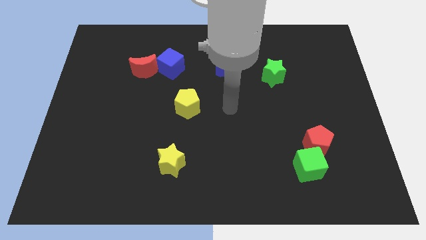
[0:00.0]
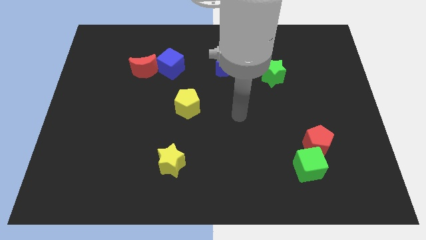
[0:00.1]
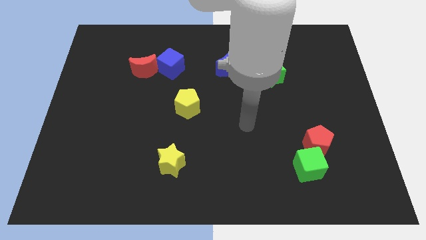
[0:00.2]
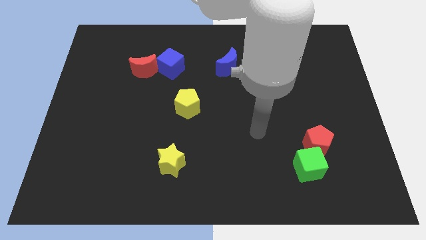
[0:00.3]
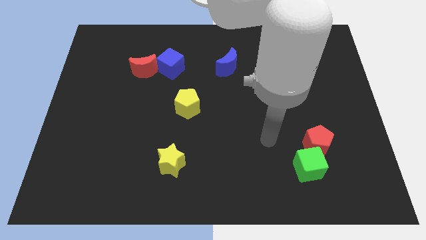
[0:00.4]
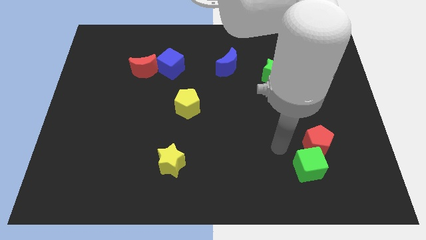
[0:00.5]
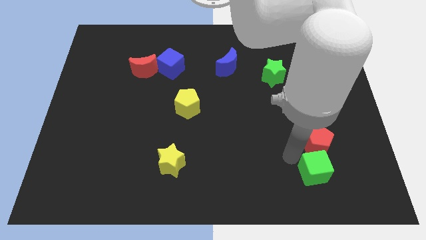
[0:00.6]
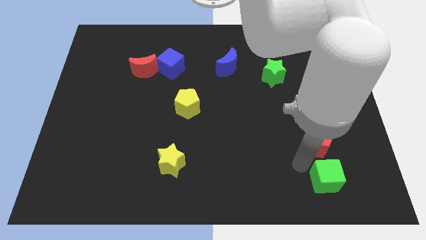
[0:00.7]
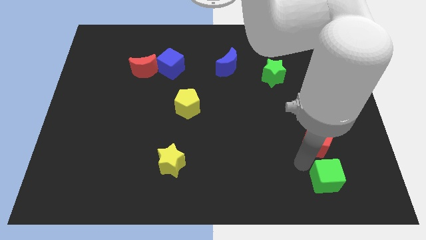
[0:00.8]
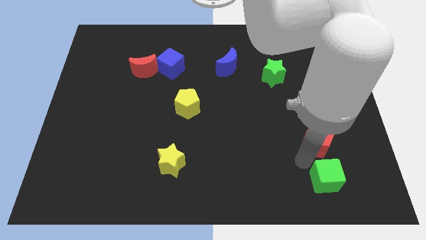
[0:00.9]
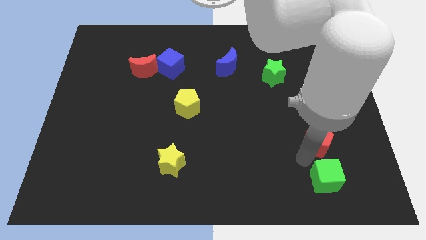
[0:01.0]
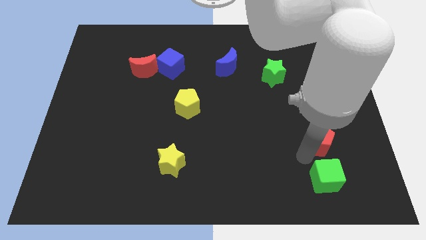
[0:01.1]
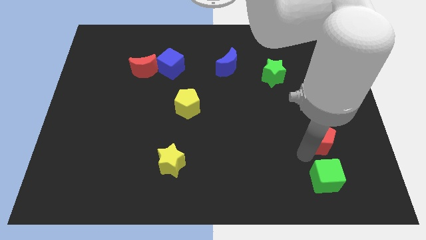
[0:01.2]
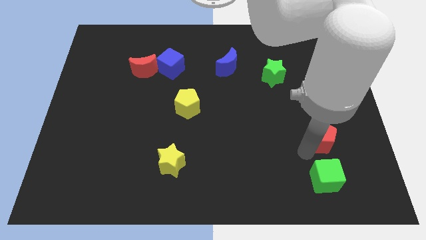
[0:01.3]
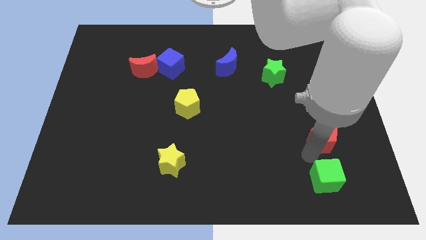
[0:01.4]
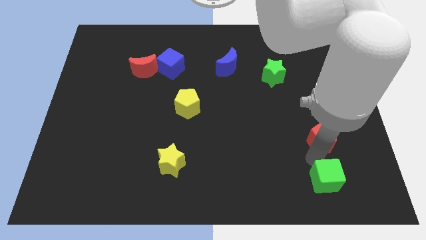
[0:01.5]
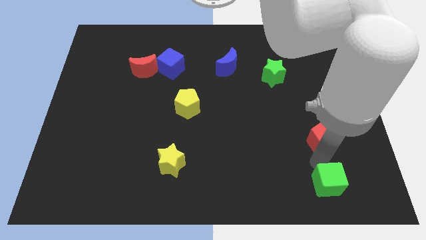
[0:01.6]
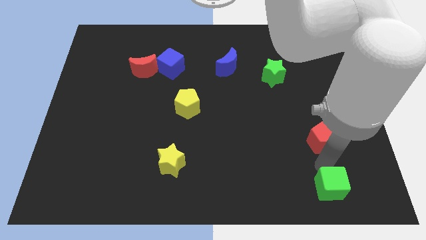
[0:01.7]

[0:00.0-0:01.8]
separate the red pentagon from the green cube

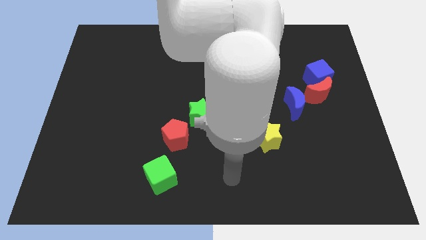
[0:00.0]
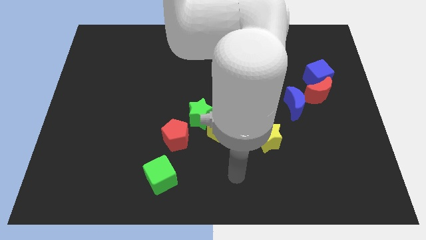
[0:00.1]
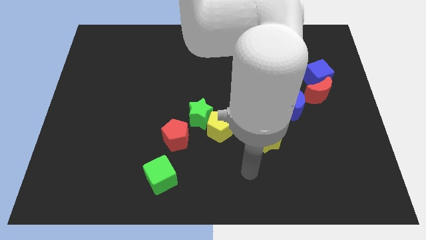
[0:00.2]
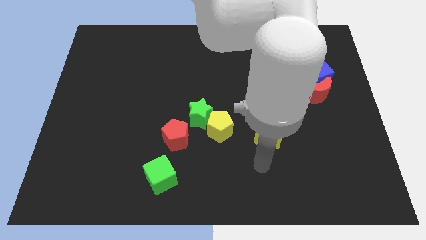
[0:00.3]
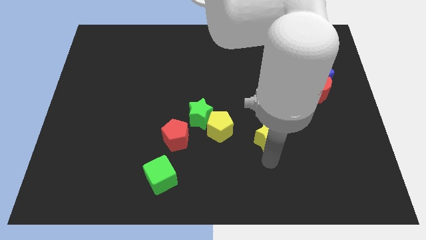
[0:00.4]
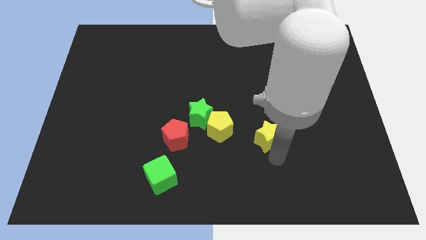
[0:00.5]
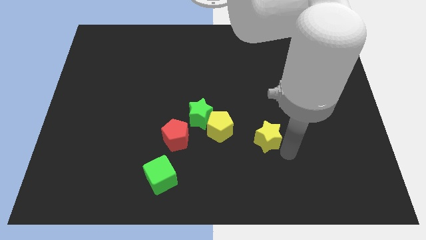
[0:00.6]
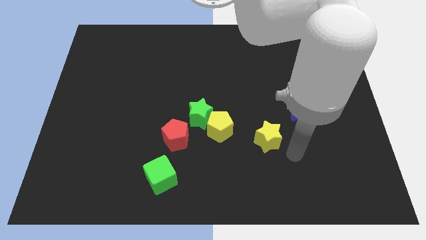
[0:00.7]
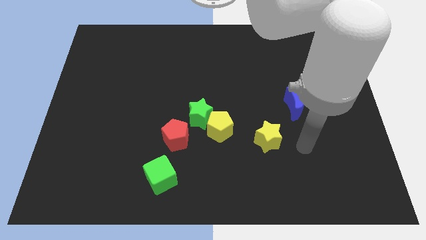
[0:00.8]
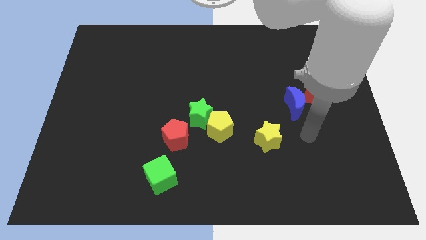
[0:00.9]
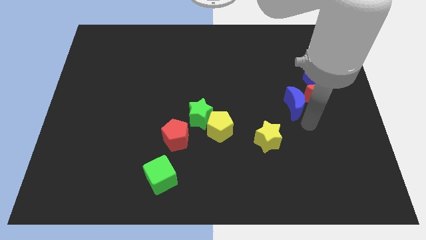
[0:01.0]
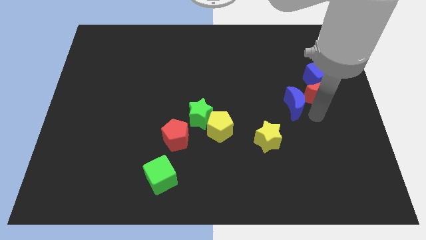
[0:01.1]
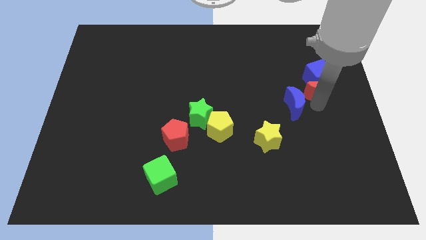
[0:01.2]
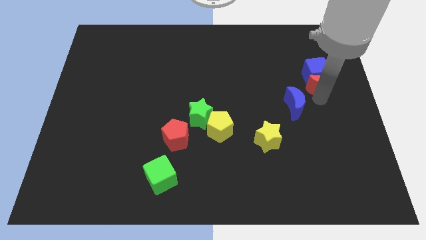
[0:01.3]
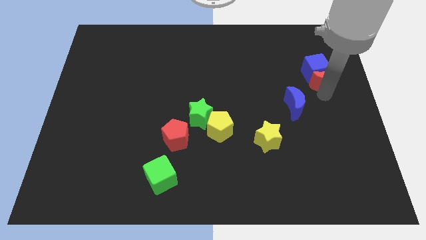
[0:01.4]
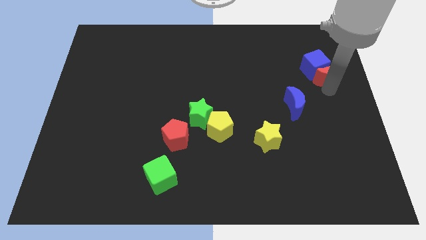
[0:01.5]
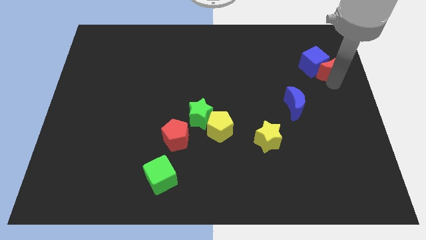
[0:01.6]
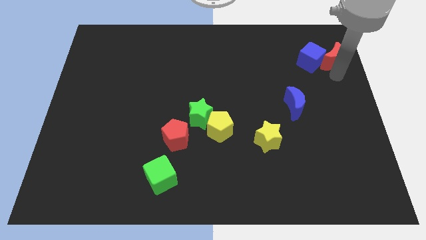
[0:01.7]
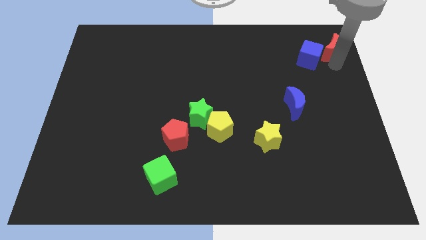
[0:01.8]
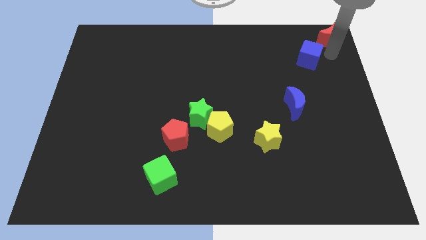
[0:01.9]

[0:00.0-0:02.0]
separate the blue cube from the red moon

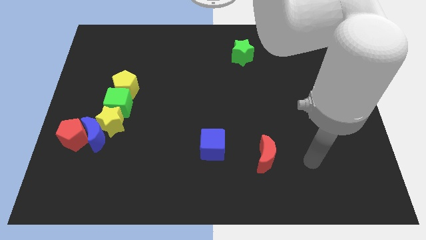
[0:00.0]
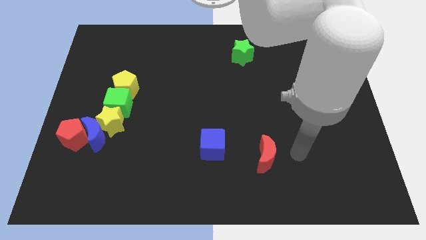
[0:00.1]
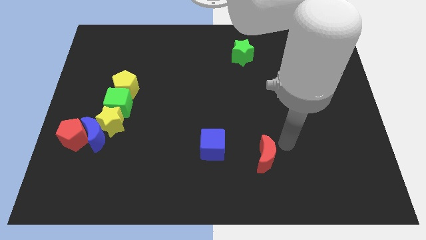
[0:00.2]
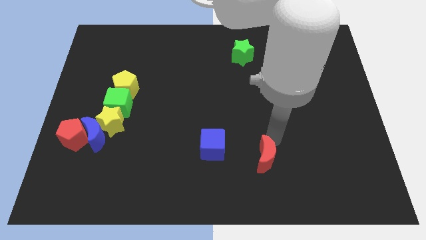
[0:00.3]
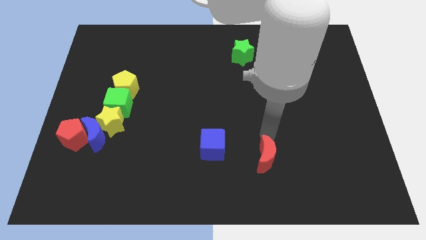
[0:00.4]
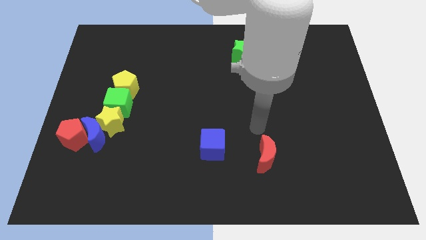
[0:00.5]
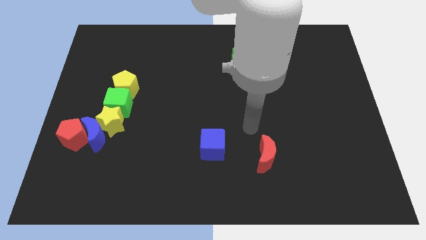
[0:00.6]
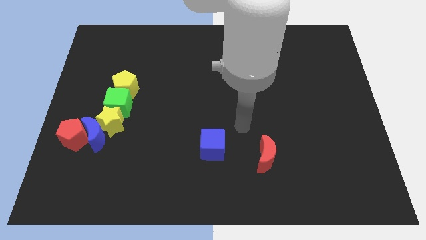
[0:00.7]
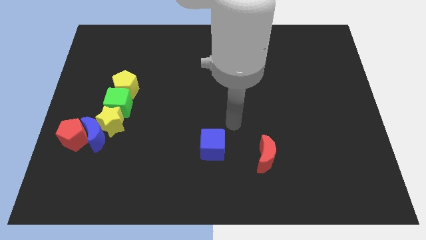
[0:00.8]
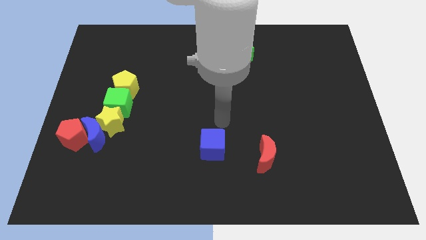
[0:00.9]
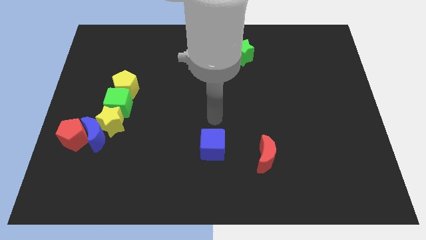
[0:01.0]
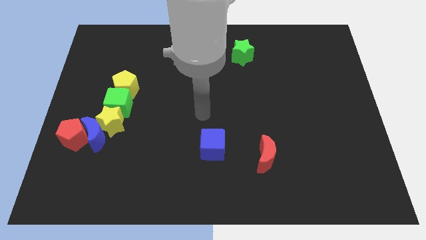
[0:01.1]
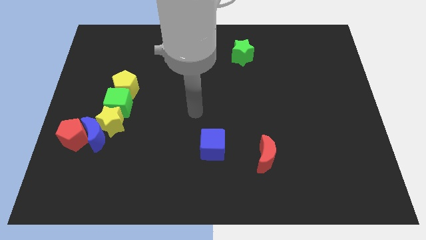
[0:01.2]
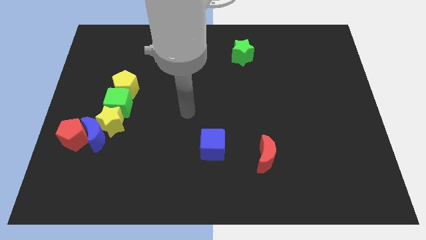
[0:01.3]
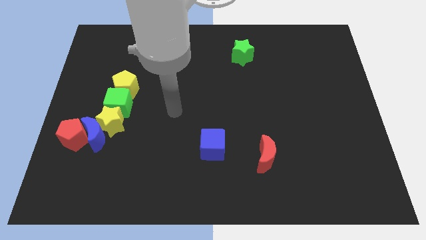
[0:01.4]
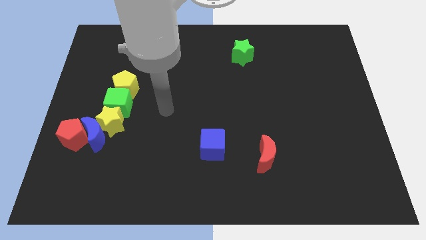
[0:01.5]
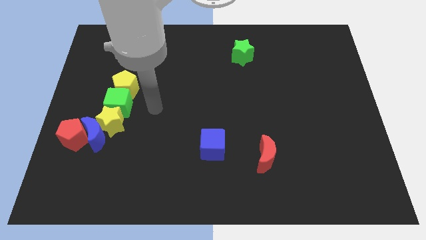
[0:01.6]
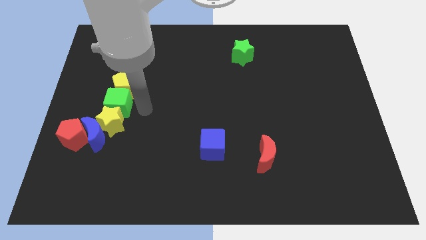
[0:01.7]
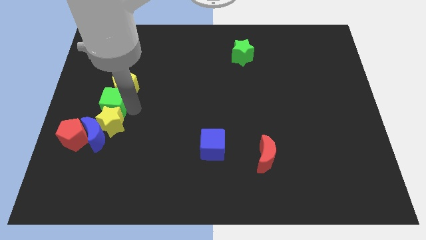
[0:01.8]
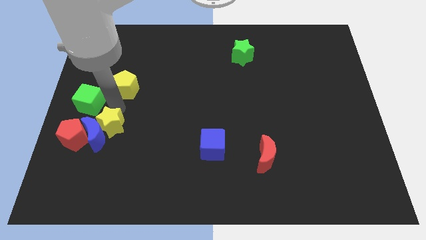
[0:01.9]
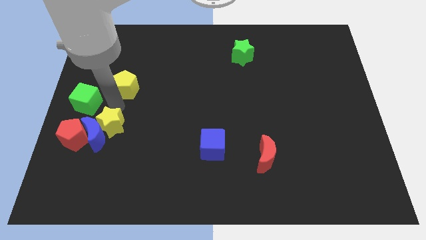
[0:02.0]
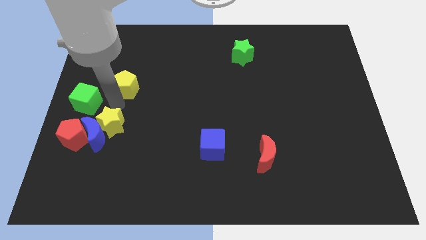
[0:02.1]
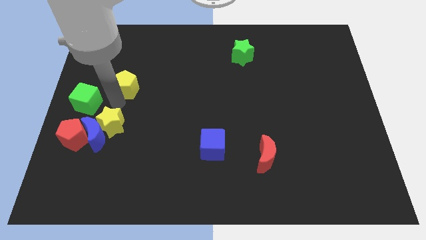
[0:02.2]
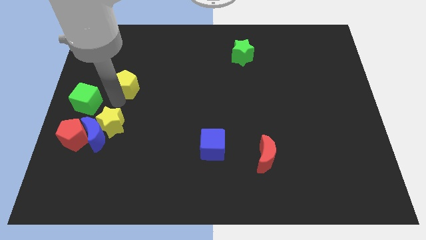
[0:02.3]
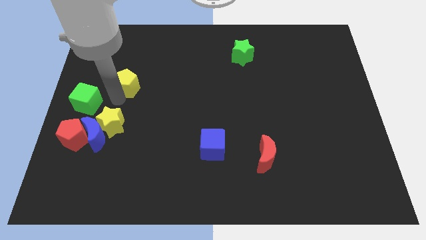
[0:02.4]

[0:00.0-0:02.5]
separate the yellow pentagon from the green cube

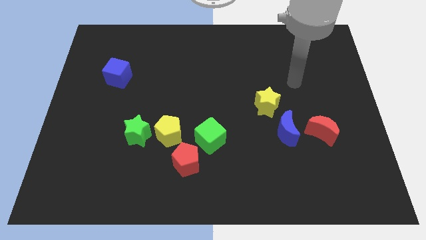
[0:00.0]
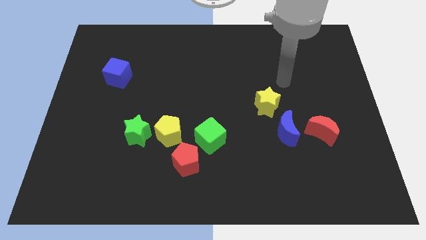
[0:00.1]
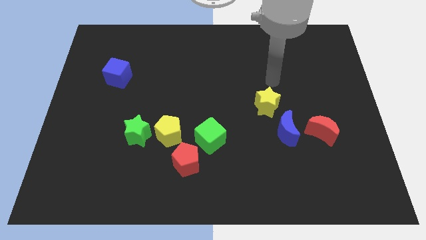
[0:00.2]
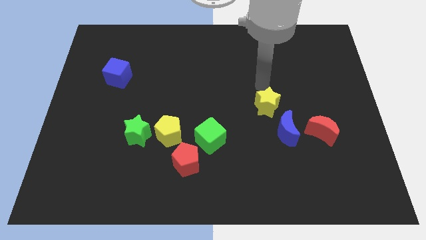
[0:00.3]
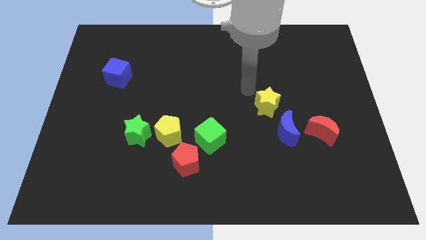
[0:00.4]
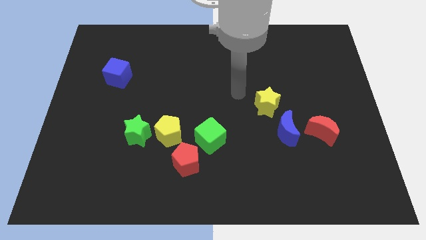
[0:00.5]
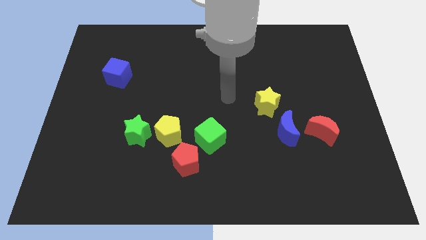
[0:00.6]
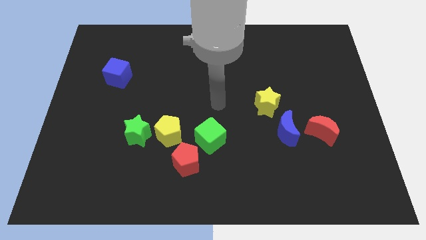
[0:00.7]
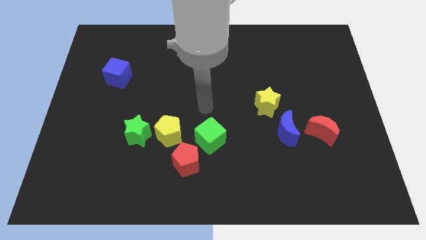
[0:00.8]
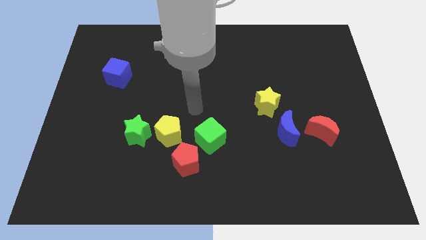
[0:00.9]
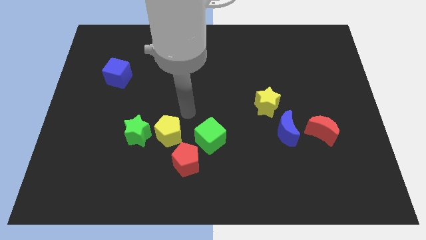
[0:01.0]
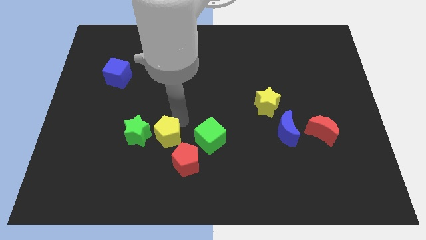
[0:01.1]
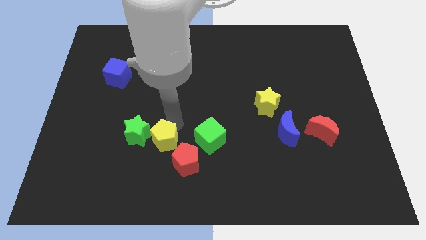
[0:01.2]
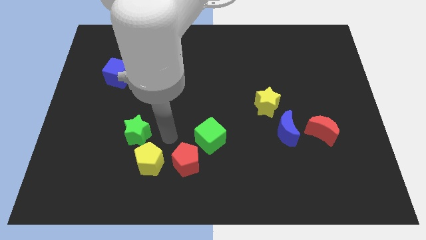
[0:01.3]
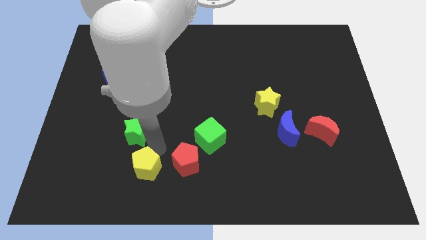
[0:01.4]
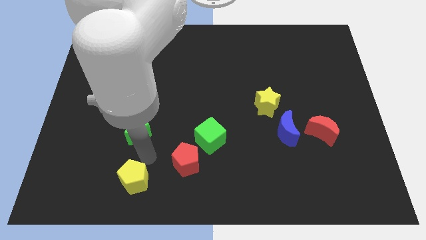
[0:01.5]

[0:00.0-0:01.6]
separate the green star from the yellow pentagon

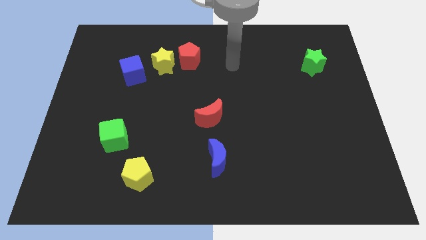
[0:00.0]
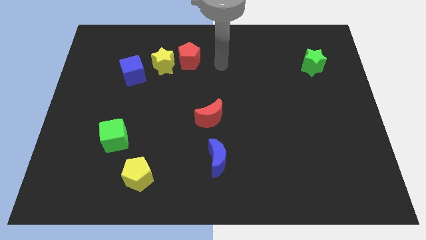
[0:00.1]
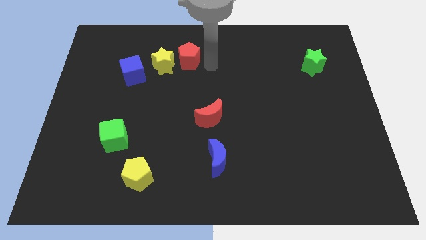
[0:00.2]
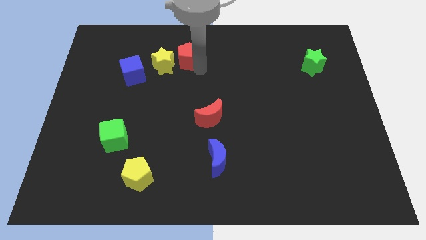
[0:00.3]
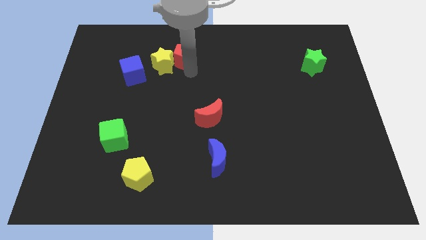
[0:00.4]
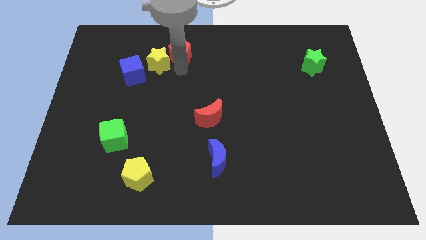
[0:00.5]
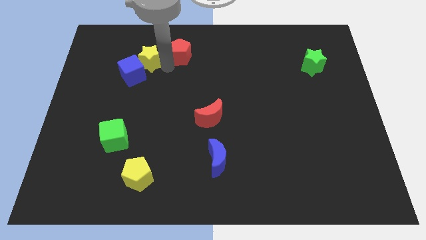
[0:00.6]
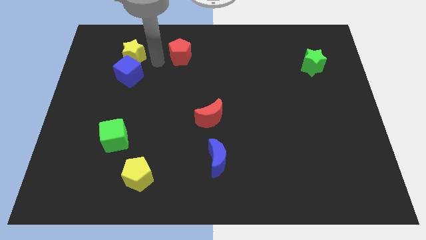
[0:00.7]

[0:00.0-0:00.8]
separate the red pentagon from the yellow star

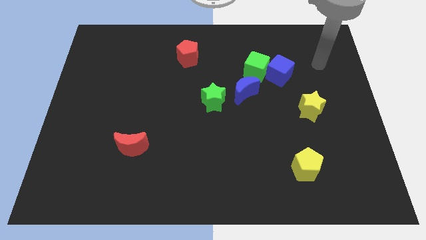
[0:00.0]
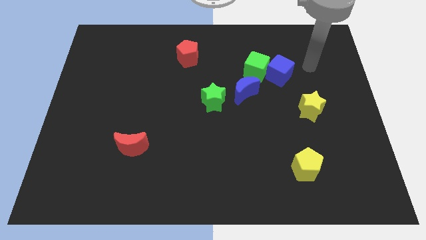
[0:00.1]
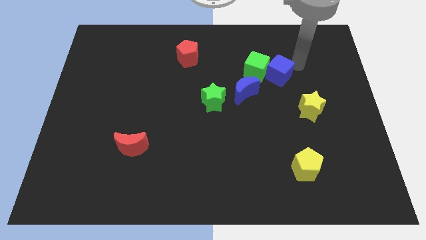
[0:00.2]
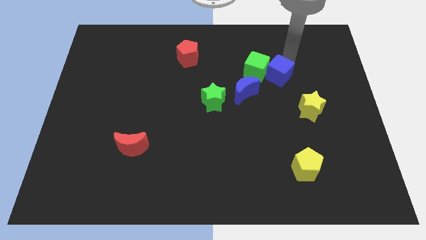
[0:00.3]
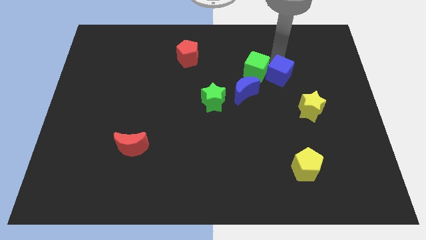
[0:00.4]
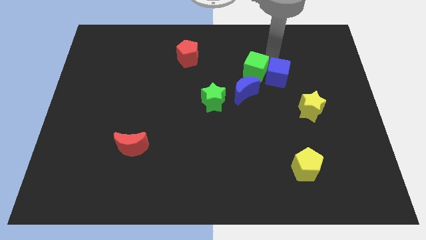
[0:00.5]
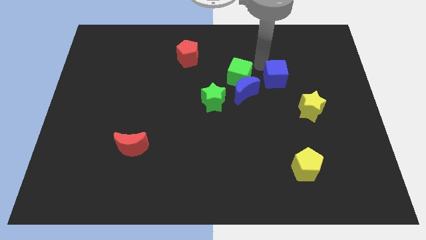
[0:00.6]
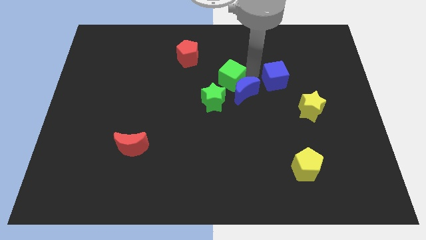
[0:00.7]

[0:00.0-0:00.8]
pull the blue cube apart from the green cube
